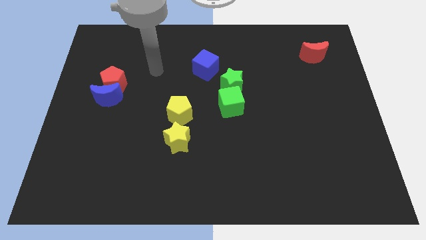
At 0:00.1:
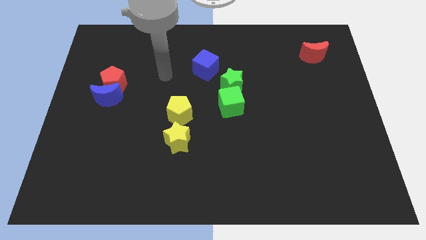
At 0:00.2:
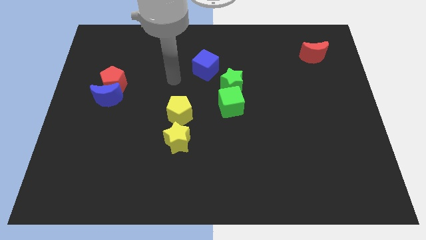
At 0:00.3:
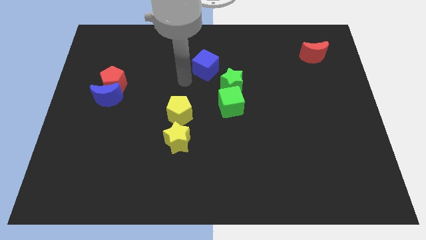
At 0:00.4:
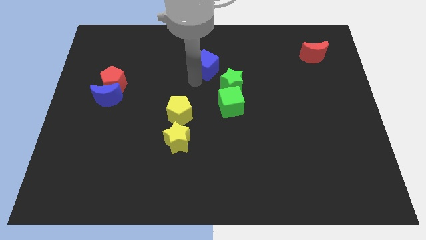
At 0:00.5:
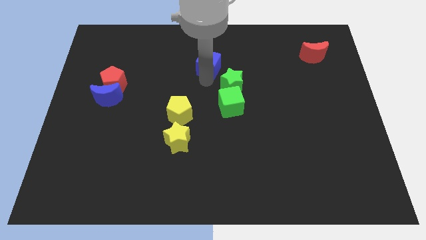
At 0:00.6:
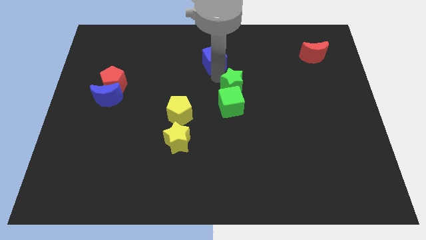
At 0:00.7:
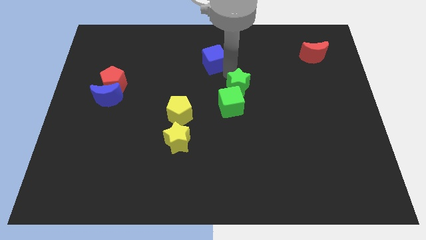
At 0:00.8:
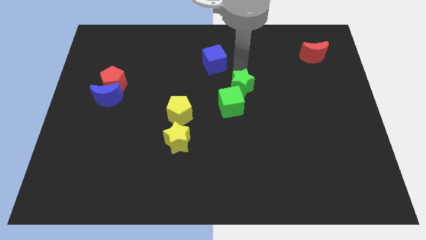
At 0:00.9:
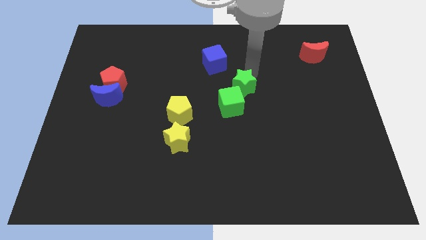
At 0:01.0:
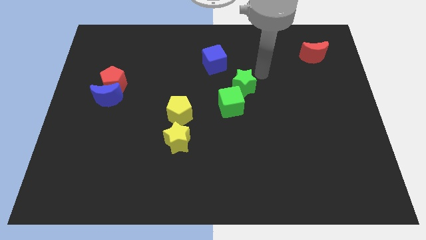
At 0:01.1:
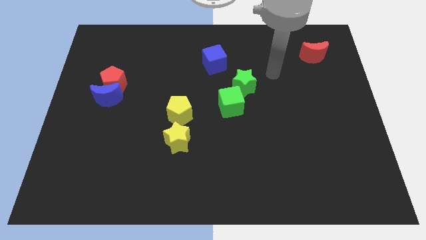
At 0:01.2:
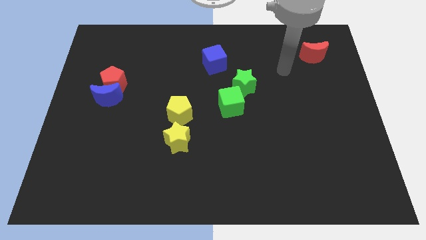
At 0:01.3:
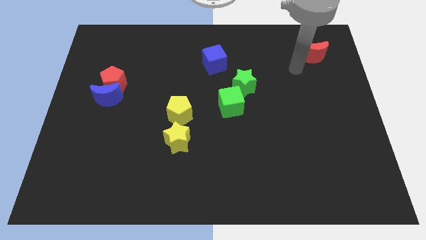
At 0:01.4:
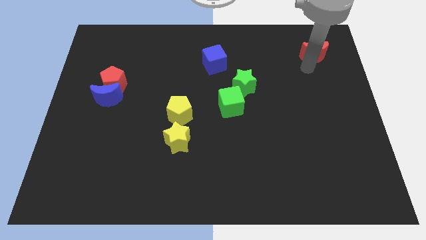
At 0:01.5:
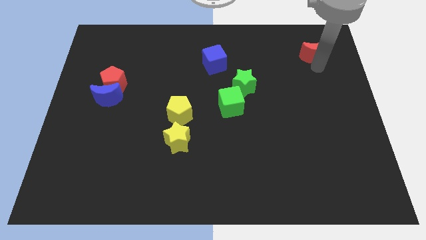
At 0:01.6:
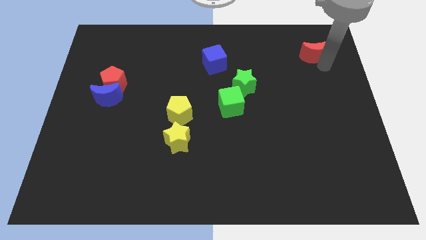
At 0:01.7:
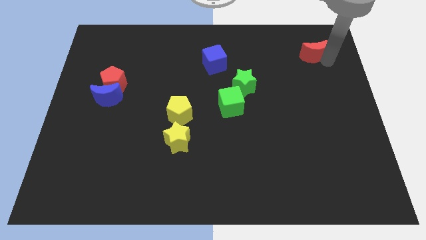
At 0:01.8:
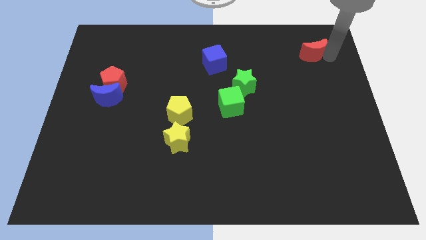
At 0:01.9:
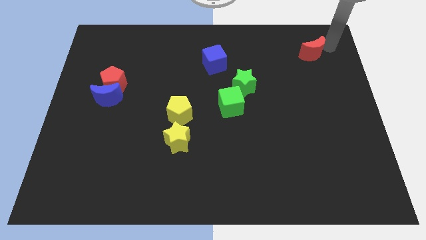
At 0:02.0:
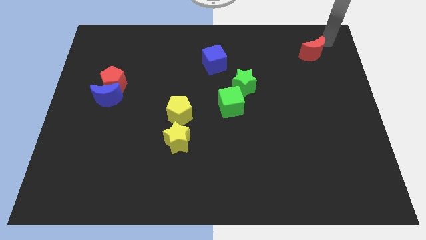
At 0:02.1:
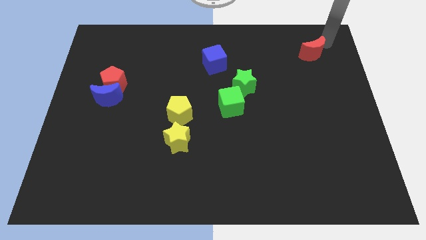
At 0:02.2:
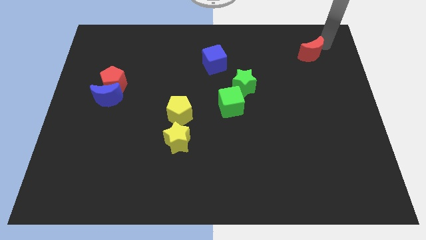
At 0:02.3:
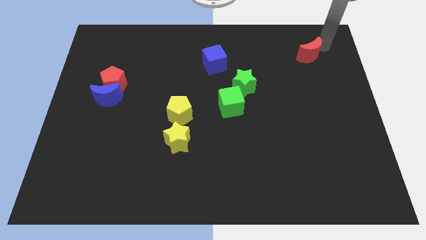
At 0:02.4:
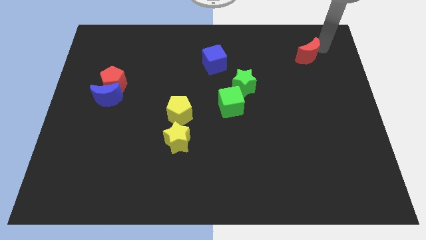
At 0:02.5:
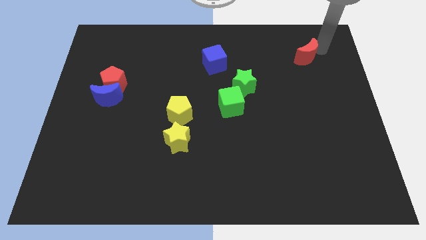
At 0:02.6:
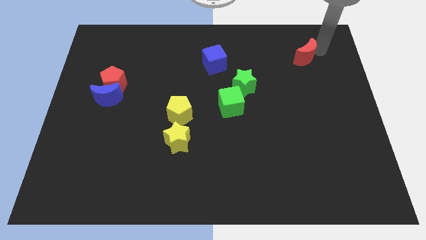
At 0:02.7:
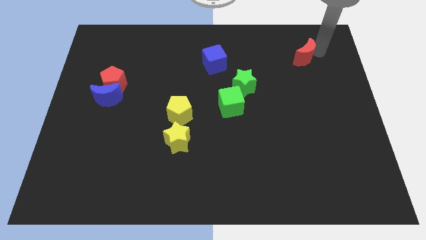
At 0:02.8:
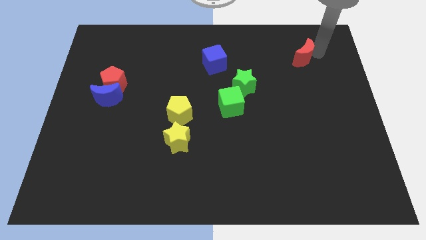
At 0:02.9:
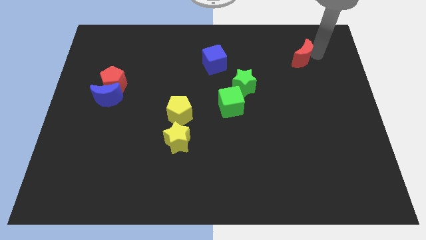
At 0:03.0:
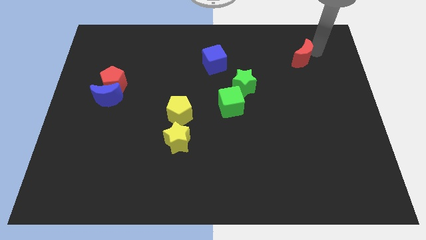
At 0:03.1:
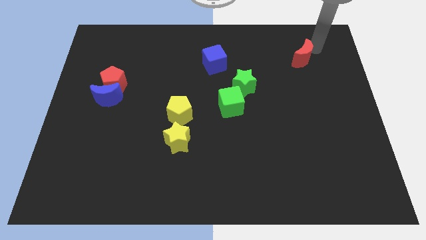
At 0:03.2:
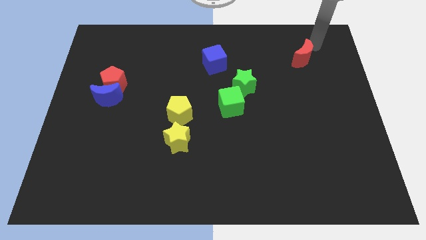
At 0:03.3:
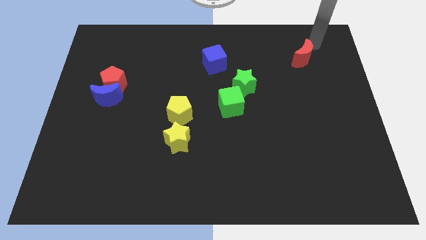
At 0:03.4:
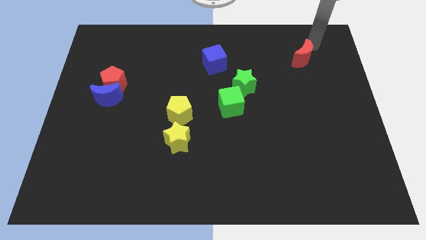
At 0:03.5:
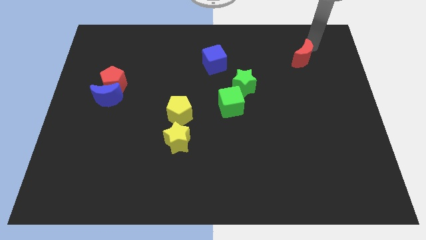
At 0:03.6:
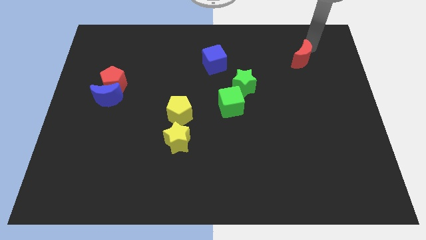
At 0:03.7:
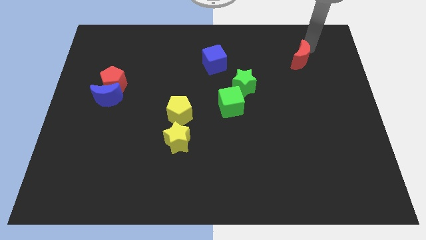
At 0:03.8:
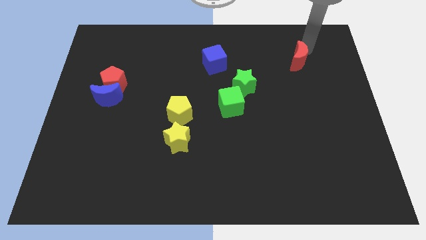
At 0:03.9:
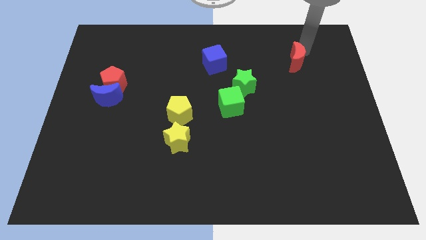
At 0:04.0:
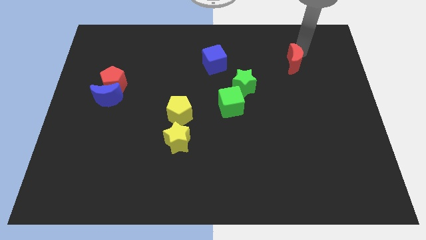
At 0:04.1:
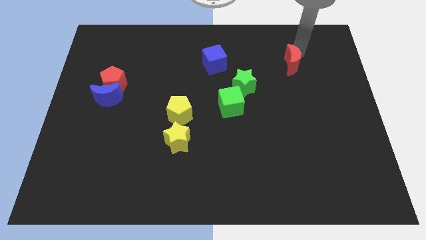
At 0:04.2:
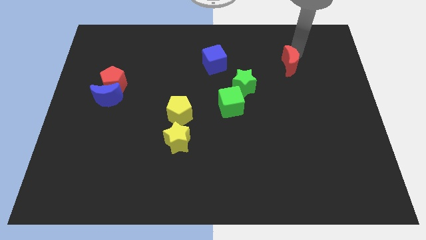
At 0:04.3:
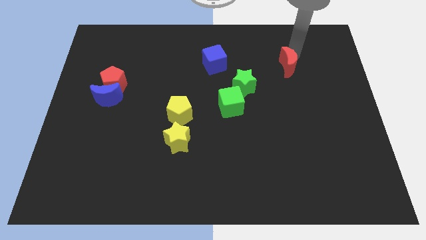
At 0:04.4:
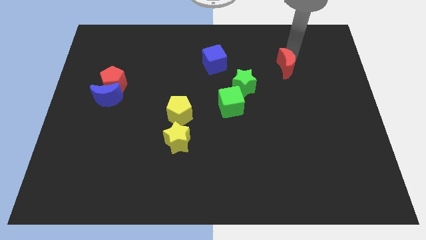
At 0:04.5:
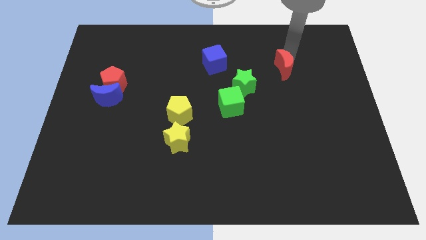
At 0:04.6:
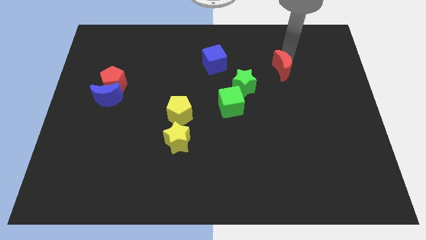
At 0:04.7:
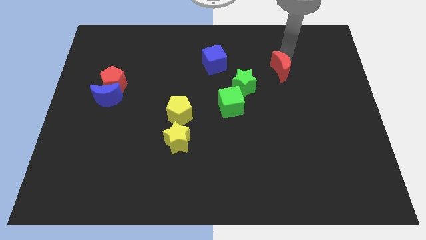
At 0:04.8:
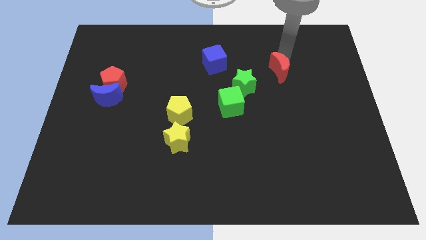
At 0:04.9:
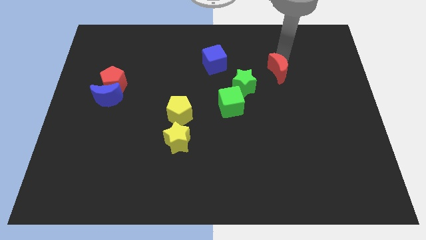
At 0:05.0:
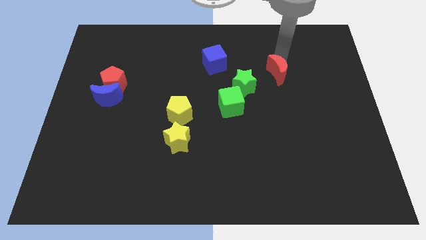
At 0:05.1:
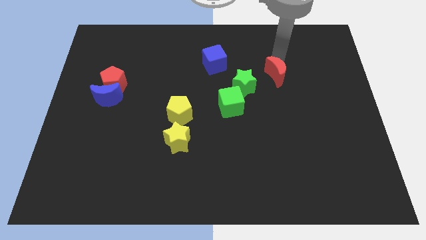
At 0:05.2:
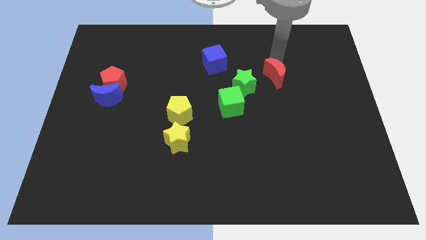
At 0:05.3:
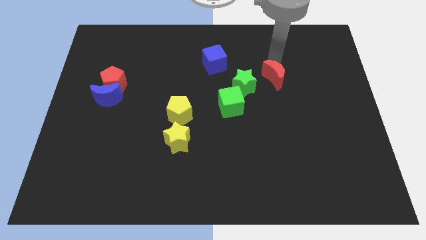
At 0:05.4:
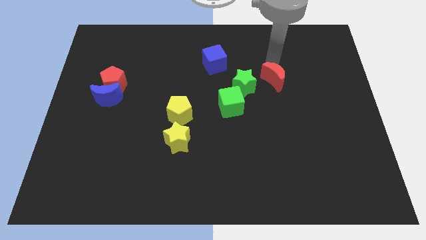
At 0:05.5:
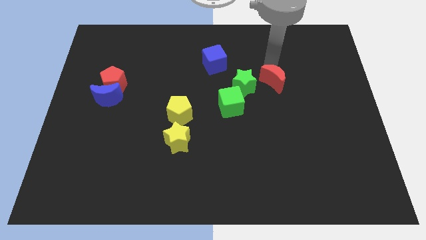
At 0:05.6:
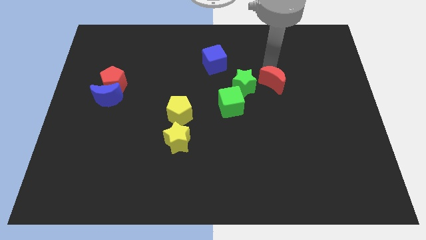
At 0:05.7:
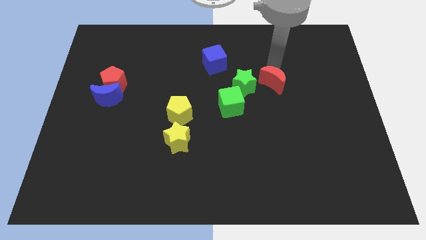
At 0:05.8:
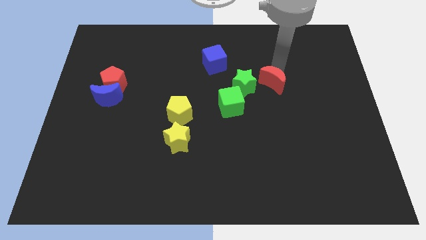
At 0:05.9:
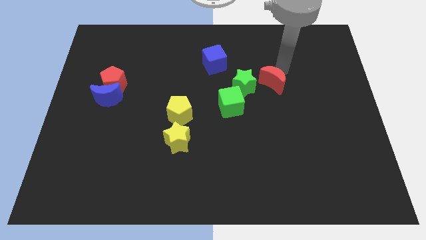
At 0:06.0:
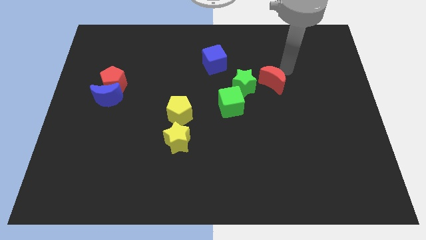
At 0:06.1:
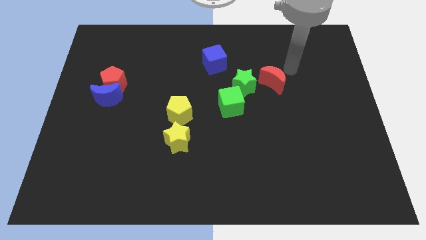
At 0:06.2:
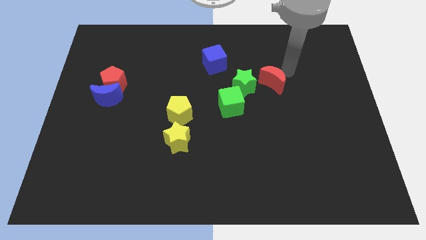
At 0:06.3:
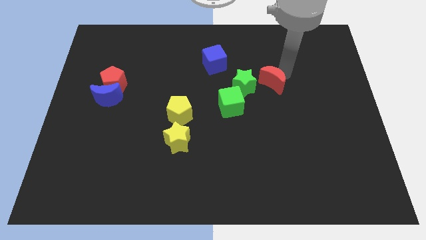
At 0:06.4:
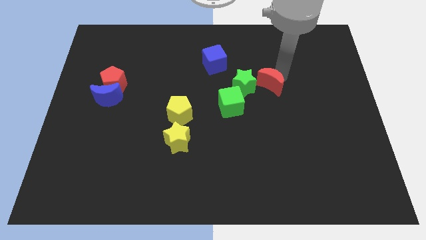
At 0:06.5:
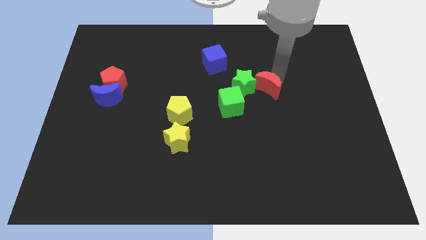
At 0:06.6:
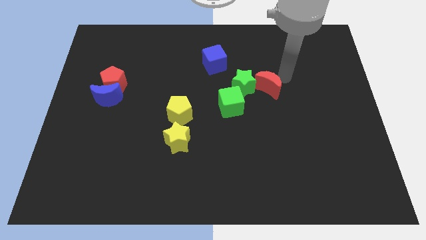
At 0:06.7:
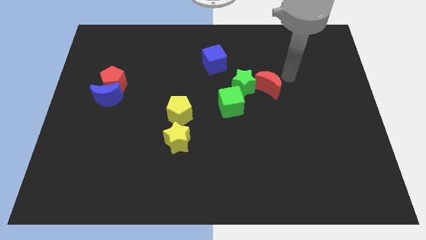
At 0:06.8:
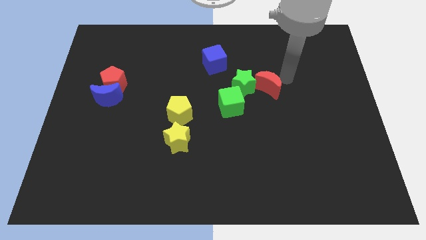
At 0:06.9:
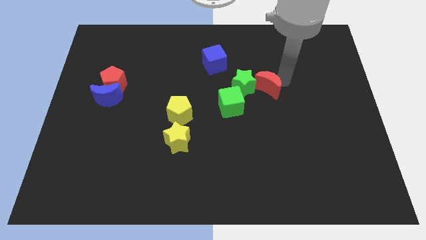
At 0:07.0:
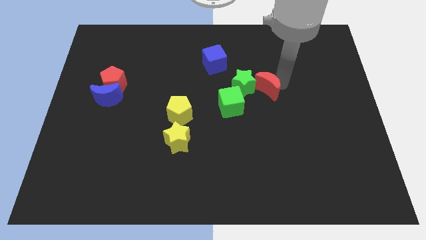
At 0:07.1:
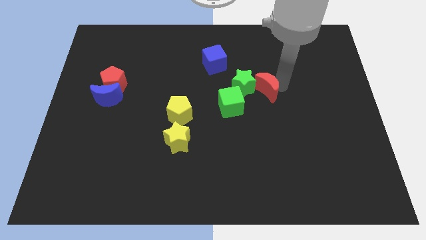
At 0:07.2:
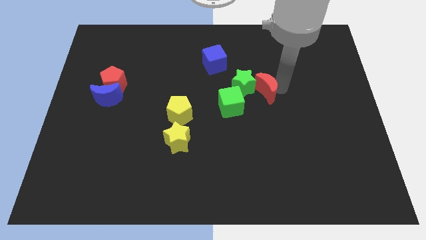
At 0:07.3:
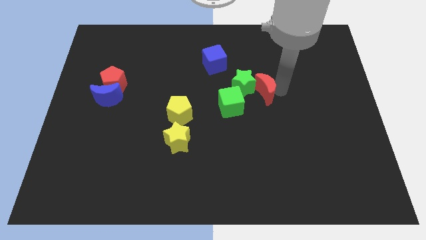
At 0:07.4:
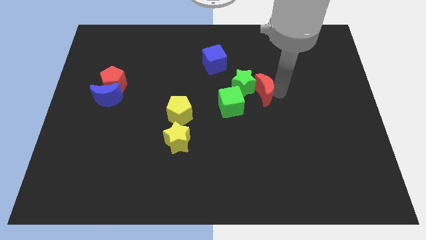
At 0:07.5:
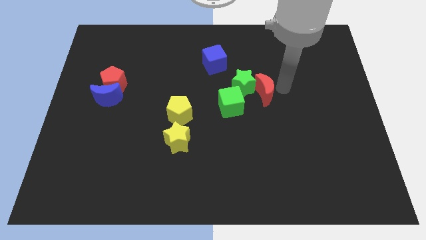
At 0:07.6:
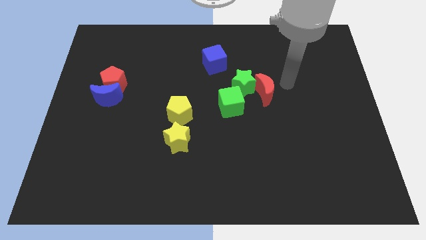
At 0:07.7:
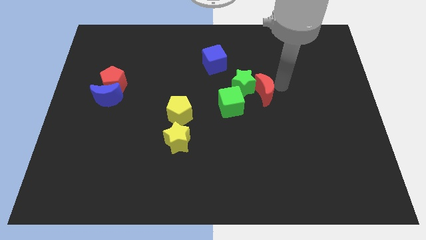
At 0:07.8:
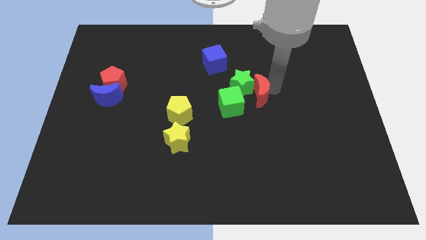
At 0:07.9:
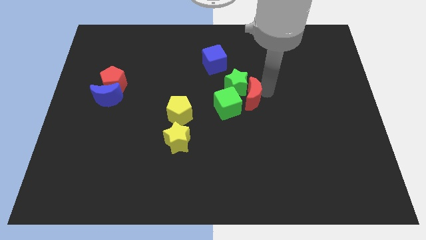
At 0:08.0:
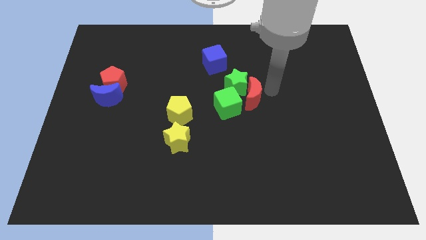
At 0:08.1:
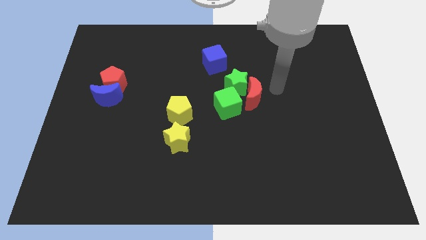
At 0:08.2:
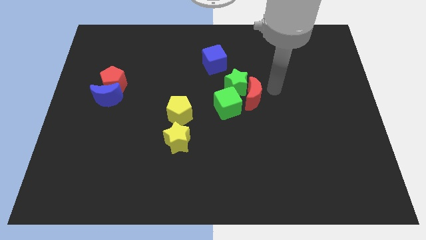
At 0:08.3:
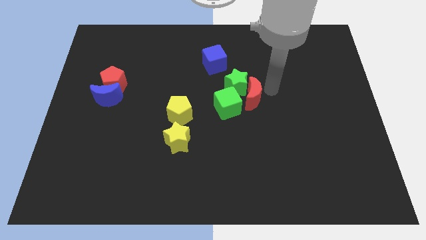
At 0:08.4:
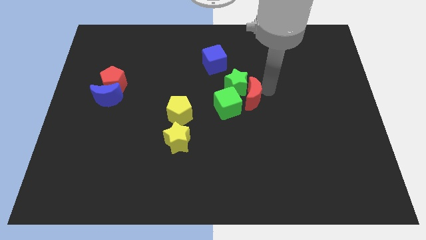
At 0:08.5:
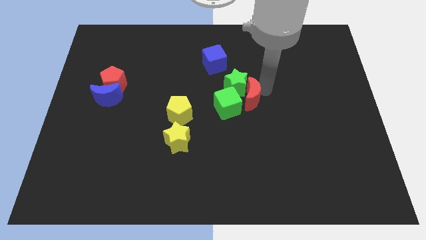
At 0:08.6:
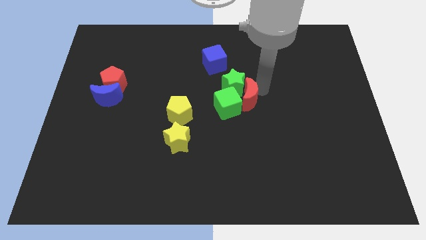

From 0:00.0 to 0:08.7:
push the red moon towards the green cube
